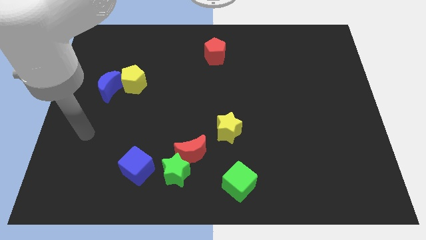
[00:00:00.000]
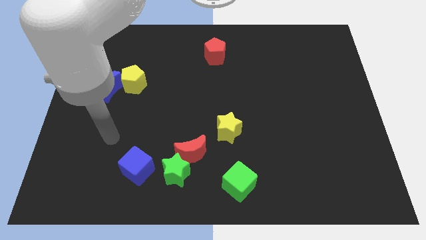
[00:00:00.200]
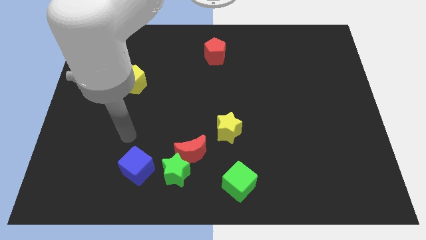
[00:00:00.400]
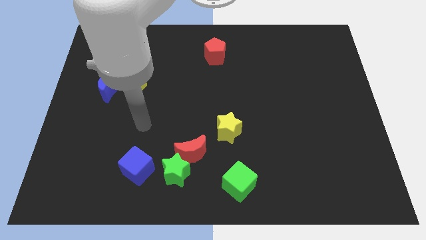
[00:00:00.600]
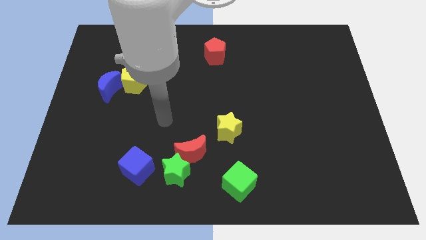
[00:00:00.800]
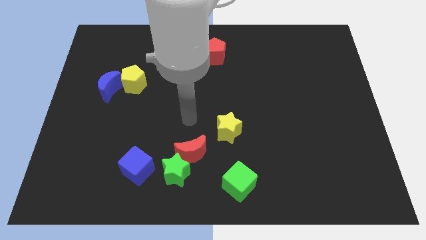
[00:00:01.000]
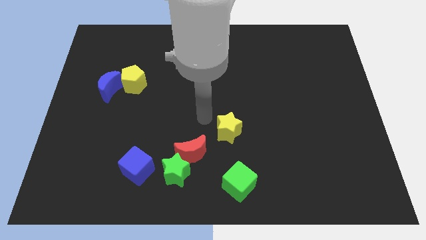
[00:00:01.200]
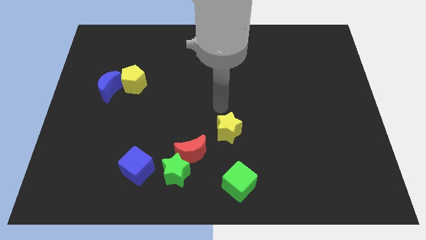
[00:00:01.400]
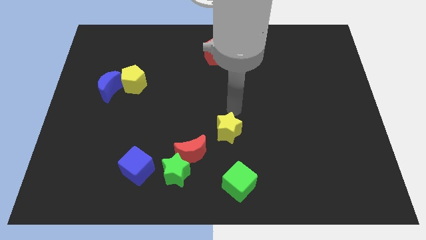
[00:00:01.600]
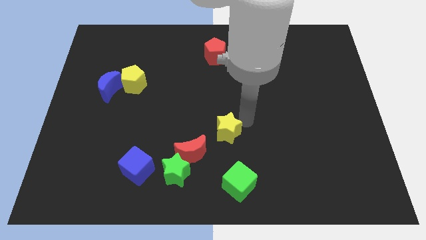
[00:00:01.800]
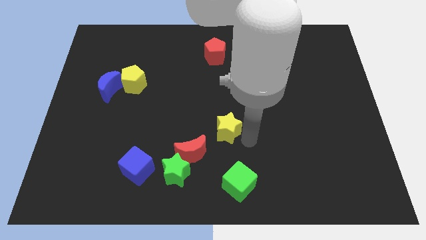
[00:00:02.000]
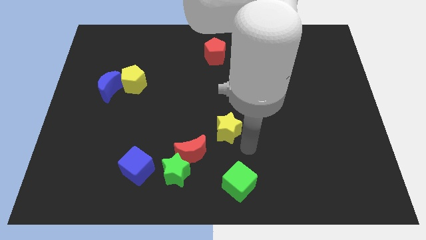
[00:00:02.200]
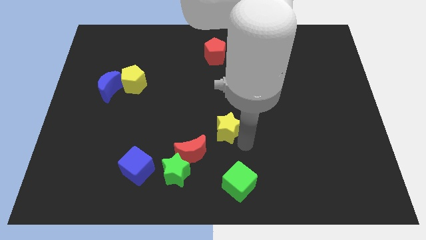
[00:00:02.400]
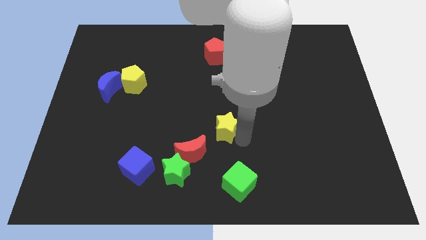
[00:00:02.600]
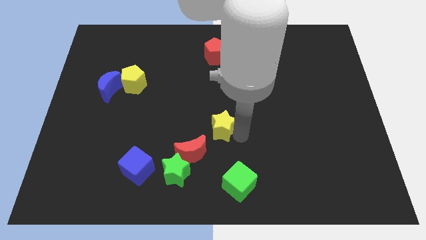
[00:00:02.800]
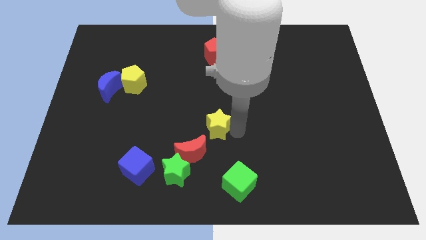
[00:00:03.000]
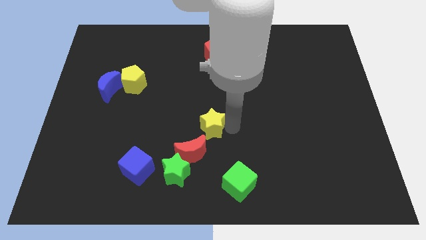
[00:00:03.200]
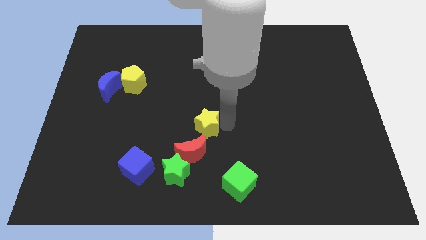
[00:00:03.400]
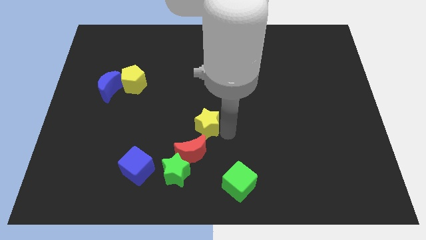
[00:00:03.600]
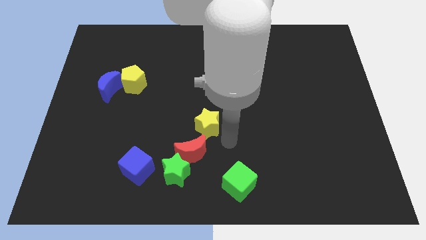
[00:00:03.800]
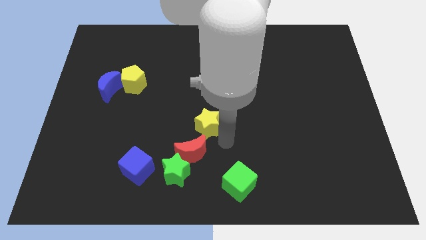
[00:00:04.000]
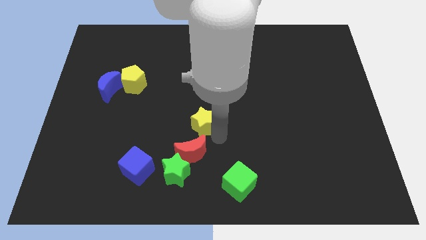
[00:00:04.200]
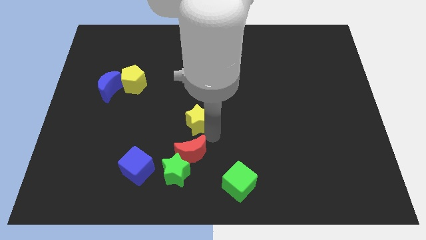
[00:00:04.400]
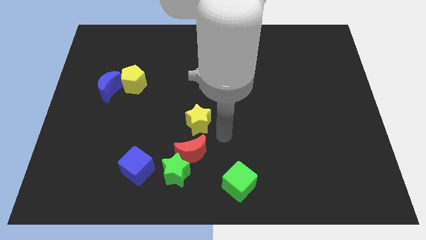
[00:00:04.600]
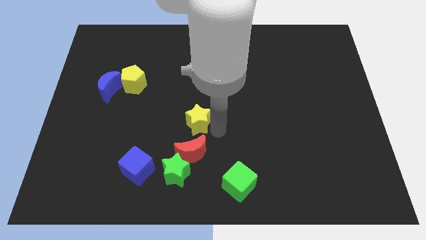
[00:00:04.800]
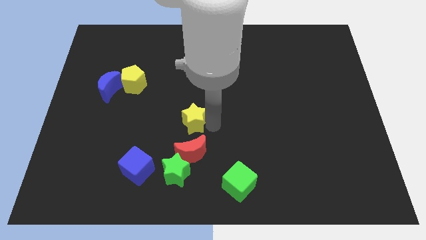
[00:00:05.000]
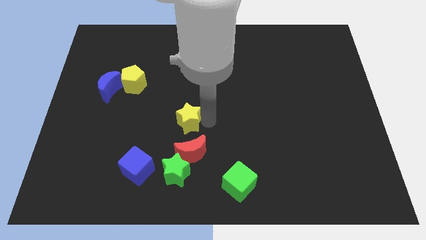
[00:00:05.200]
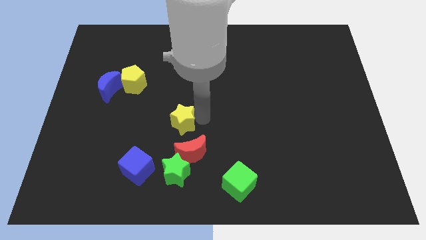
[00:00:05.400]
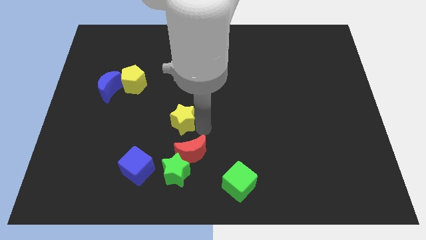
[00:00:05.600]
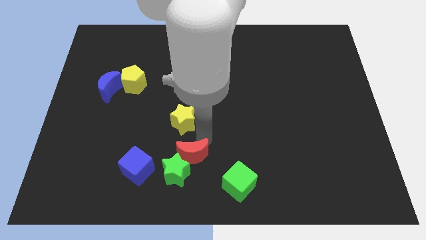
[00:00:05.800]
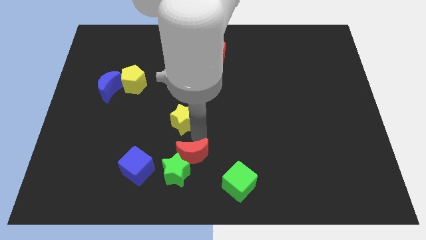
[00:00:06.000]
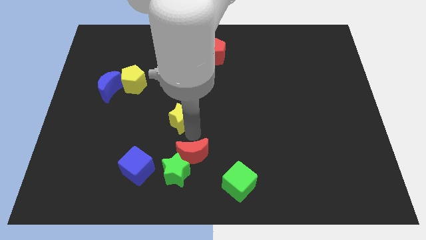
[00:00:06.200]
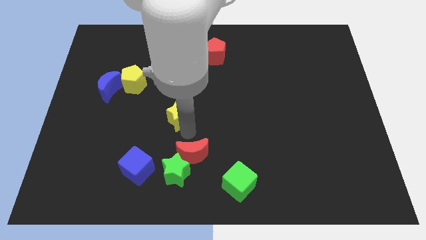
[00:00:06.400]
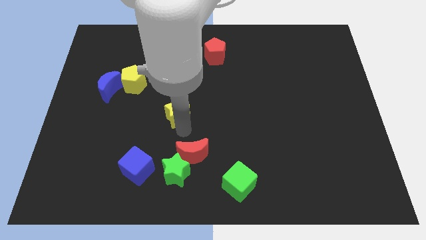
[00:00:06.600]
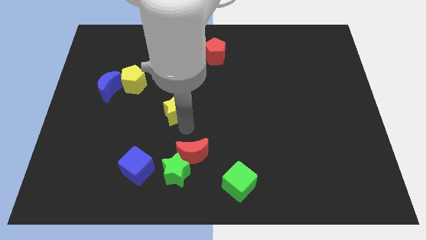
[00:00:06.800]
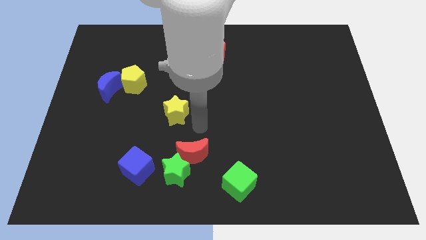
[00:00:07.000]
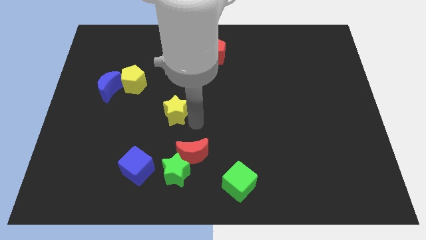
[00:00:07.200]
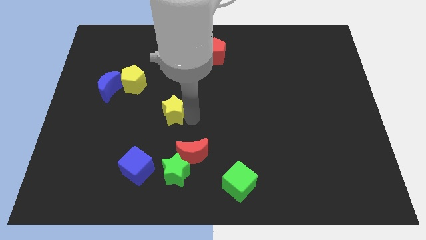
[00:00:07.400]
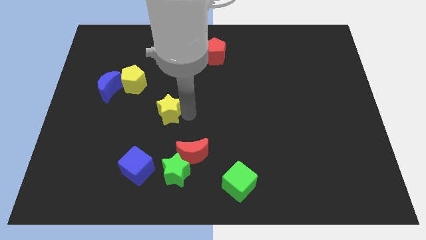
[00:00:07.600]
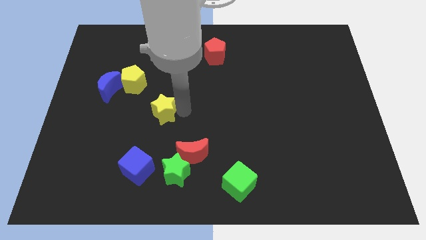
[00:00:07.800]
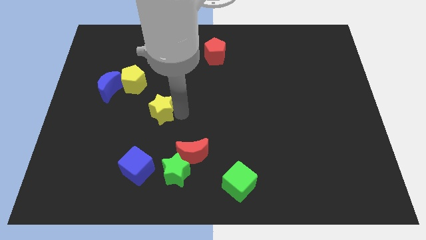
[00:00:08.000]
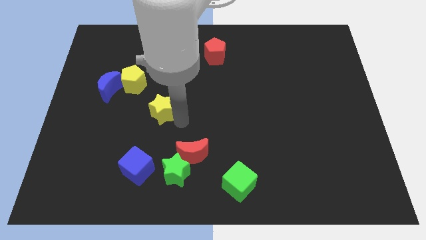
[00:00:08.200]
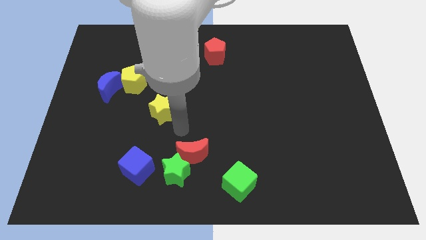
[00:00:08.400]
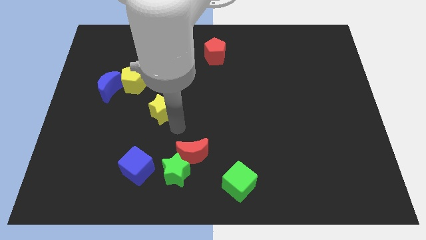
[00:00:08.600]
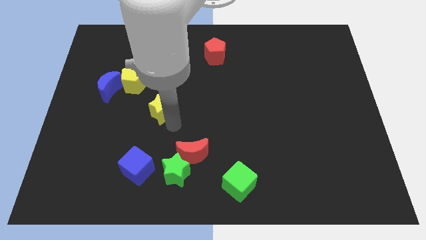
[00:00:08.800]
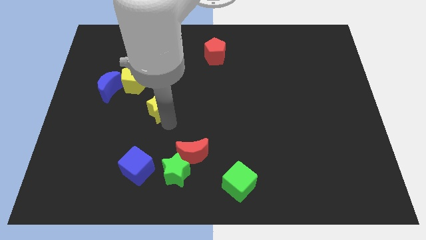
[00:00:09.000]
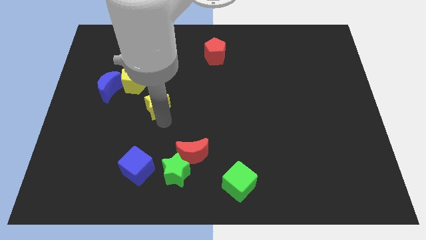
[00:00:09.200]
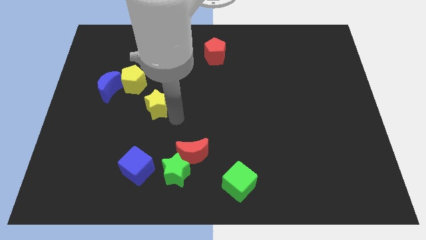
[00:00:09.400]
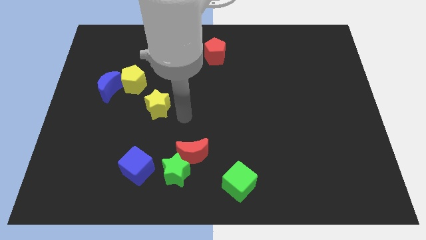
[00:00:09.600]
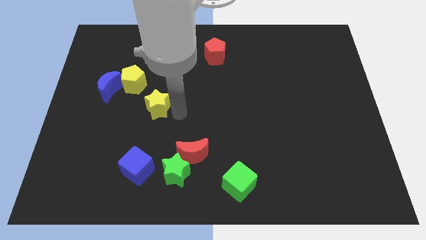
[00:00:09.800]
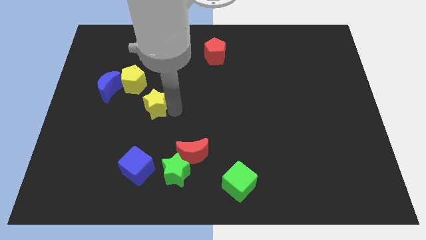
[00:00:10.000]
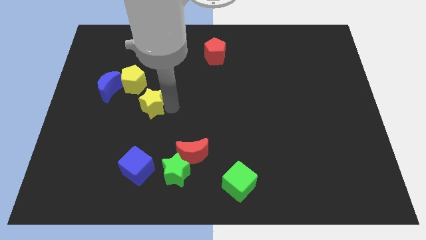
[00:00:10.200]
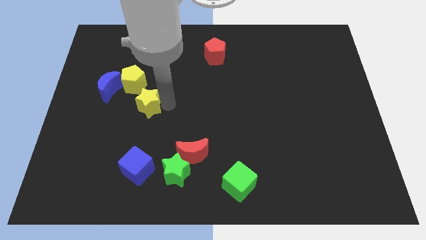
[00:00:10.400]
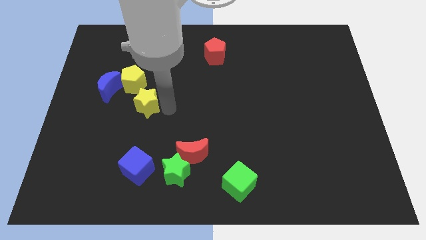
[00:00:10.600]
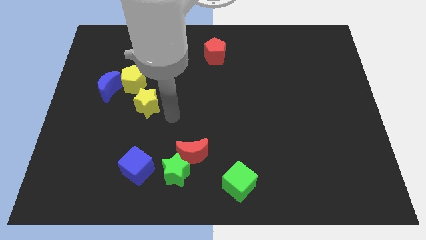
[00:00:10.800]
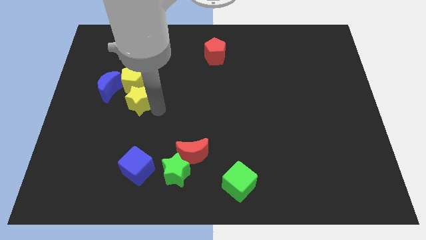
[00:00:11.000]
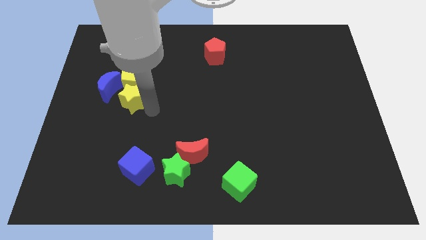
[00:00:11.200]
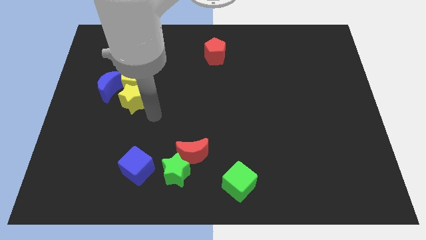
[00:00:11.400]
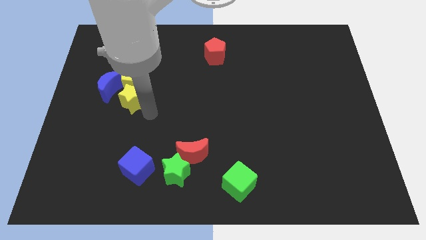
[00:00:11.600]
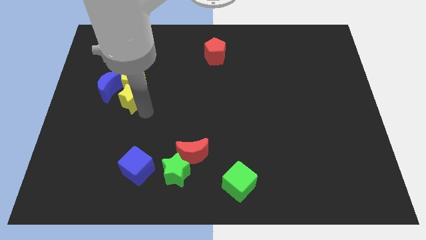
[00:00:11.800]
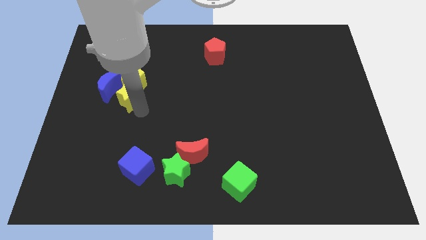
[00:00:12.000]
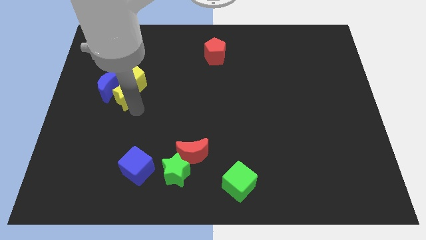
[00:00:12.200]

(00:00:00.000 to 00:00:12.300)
move the yellow star to the blue moon

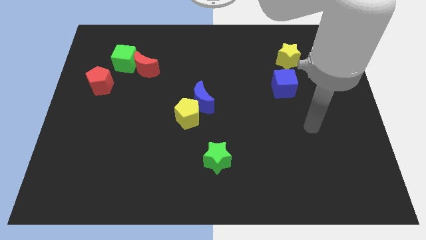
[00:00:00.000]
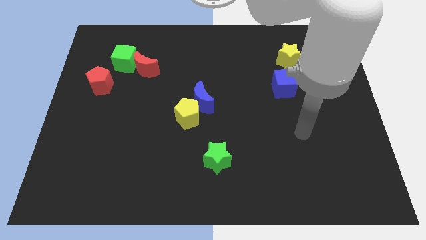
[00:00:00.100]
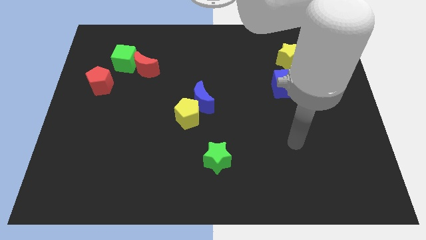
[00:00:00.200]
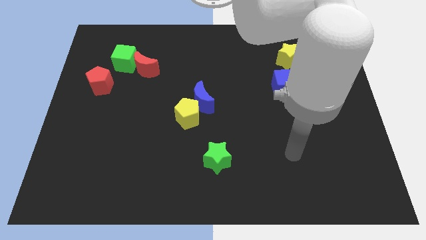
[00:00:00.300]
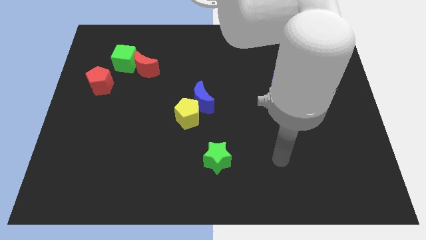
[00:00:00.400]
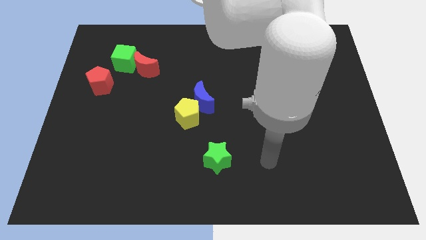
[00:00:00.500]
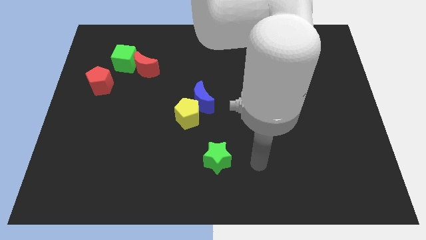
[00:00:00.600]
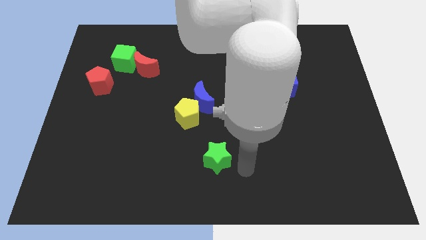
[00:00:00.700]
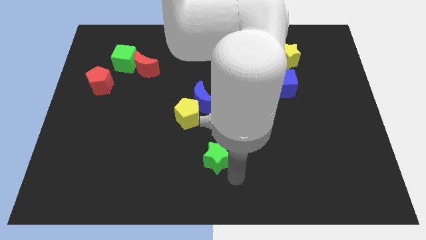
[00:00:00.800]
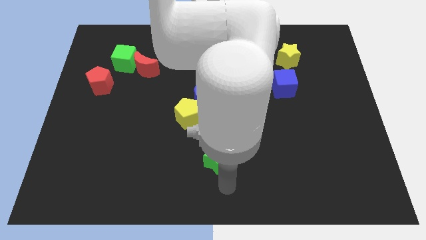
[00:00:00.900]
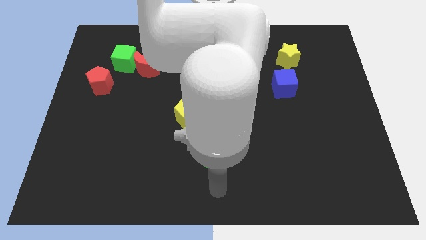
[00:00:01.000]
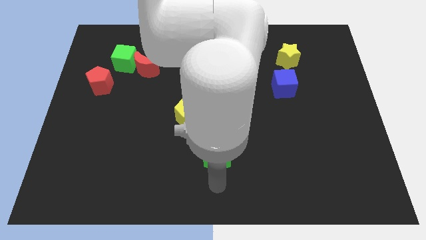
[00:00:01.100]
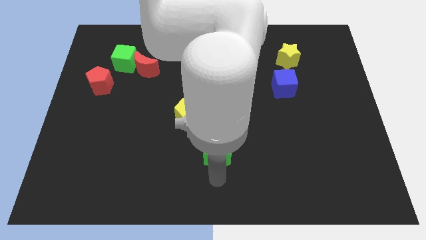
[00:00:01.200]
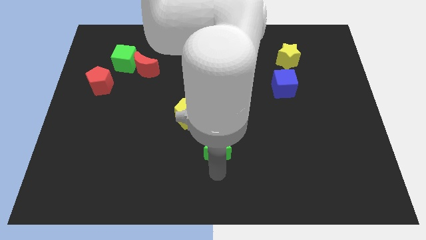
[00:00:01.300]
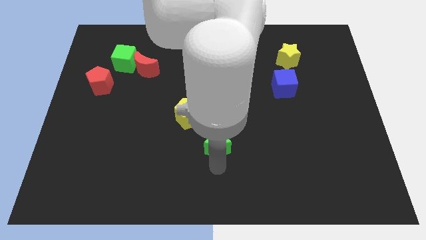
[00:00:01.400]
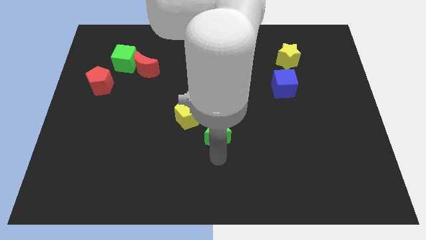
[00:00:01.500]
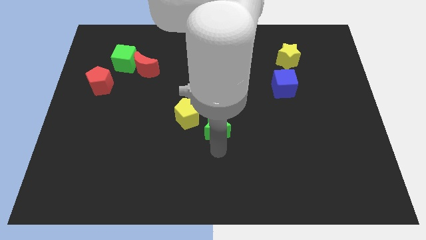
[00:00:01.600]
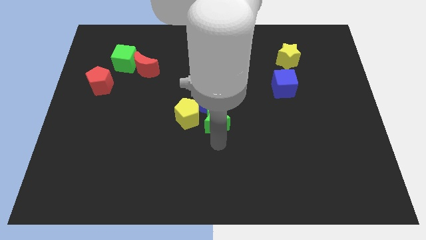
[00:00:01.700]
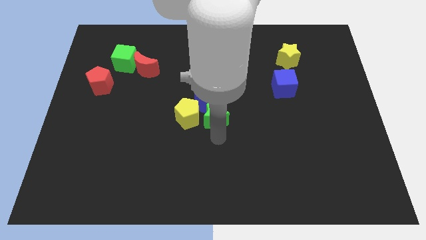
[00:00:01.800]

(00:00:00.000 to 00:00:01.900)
put the green star next to the blue moon

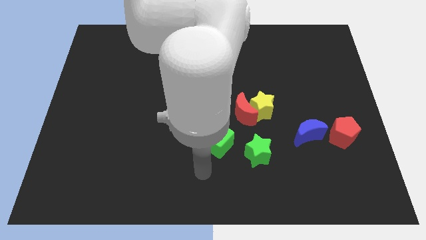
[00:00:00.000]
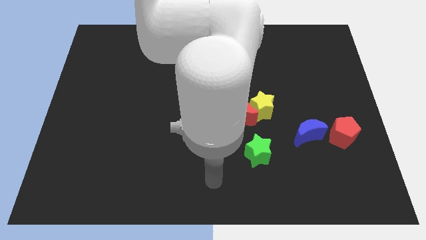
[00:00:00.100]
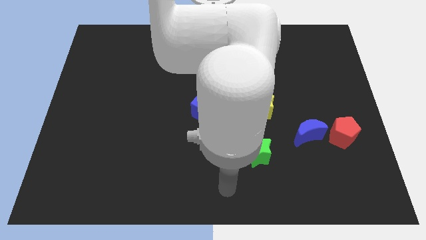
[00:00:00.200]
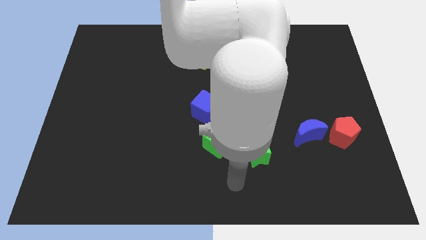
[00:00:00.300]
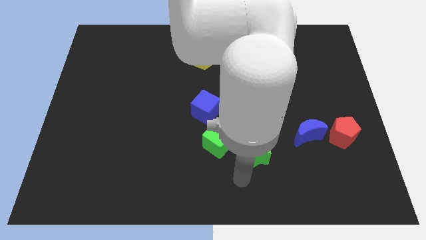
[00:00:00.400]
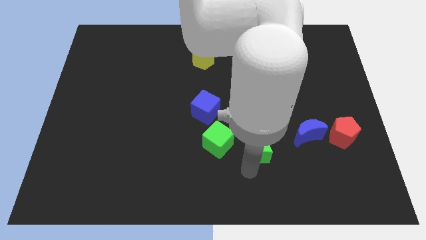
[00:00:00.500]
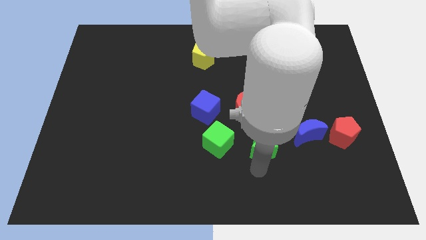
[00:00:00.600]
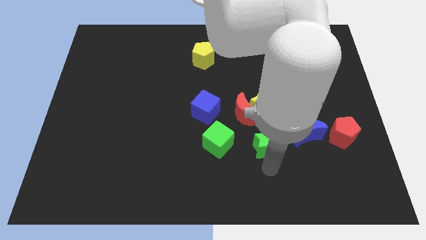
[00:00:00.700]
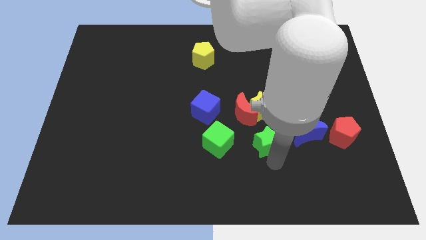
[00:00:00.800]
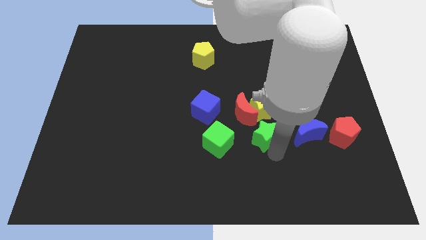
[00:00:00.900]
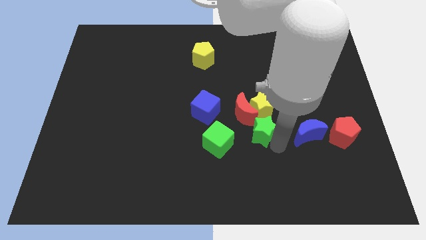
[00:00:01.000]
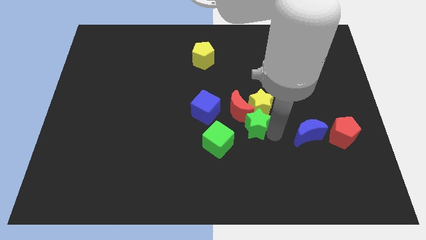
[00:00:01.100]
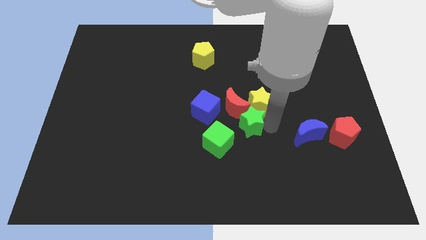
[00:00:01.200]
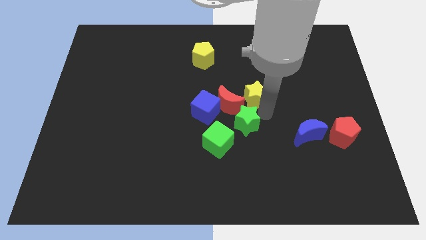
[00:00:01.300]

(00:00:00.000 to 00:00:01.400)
move the red moon towards the blue cube
